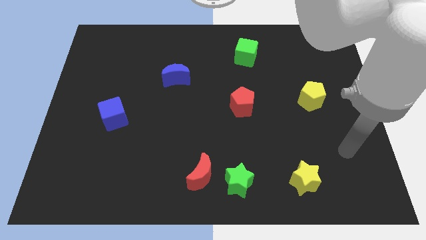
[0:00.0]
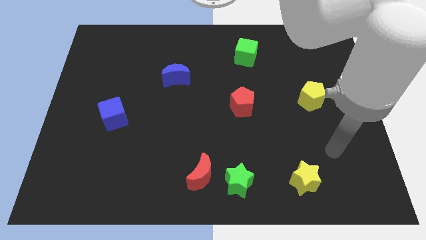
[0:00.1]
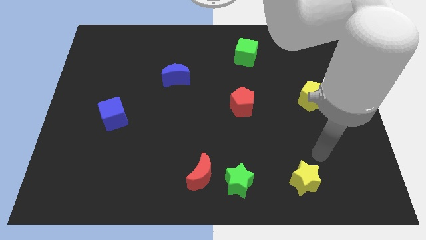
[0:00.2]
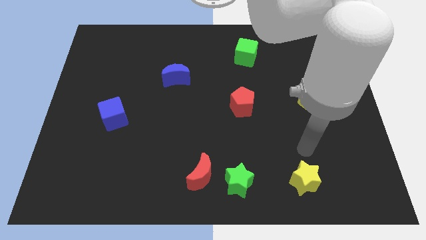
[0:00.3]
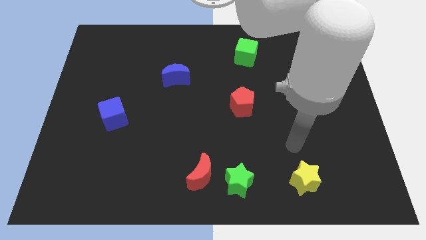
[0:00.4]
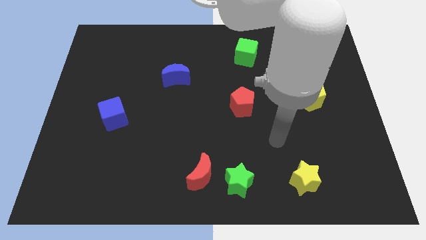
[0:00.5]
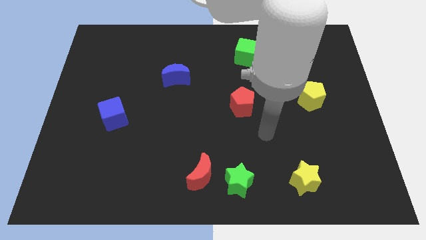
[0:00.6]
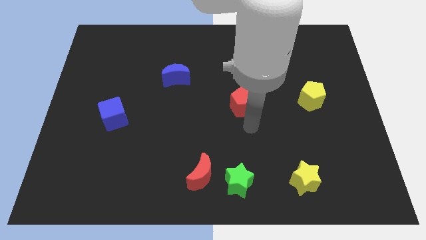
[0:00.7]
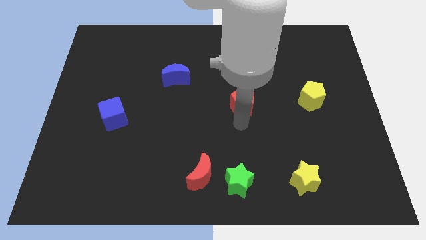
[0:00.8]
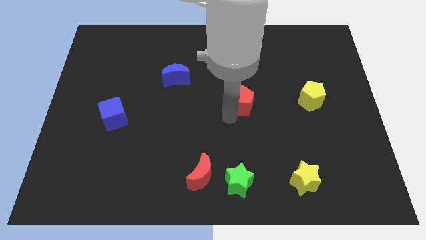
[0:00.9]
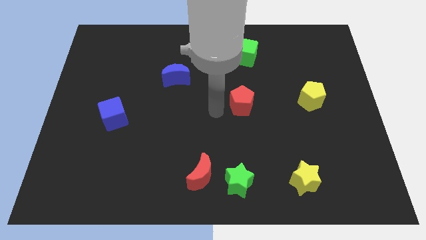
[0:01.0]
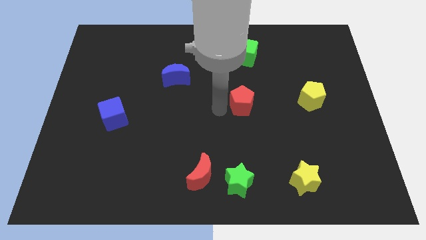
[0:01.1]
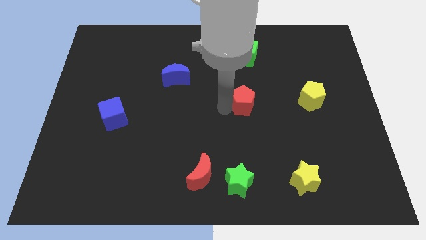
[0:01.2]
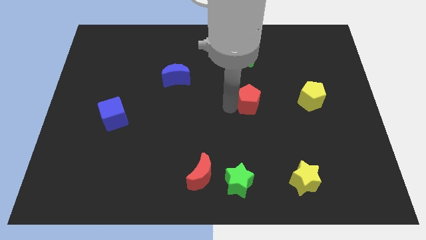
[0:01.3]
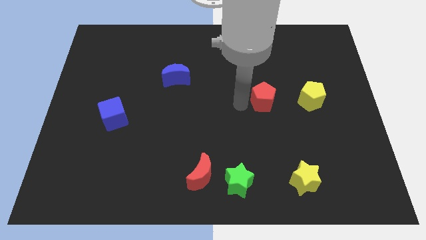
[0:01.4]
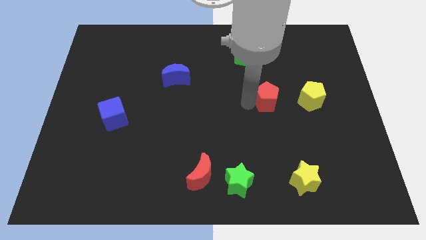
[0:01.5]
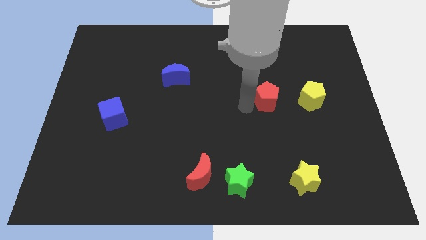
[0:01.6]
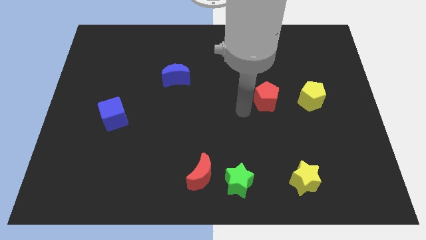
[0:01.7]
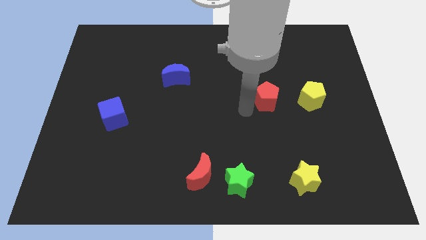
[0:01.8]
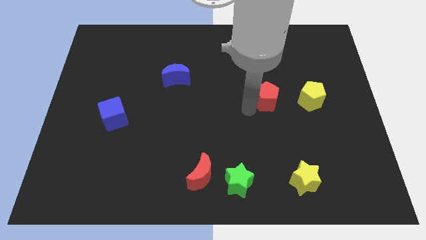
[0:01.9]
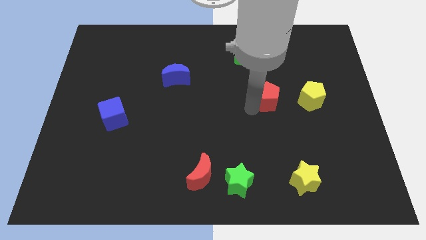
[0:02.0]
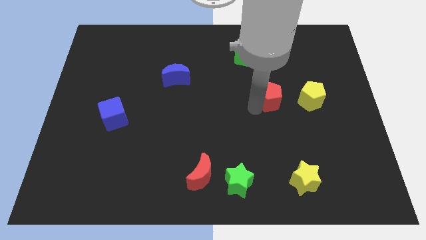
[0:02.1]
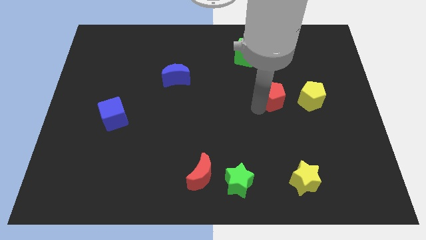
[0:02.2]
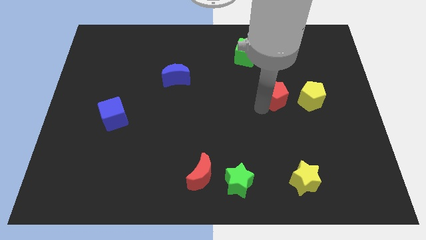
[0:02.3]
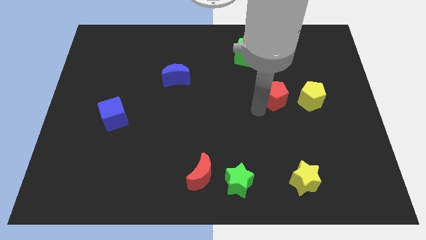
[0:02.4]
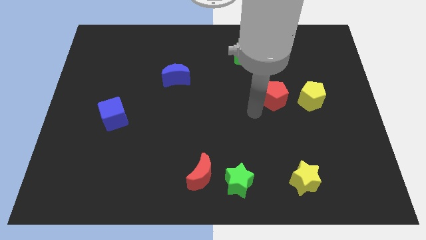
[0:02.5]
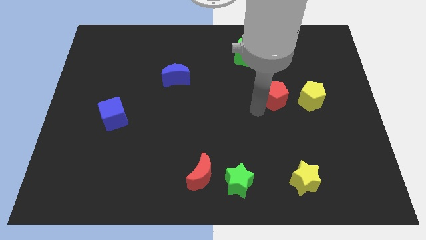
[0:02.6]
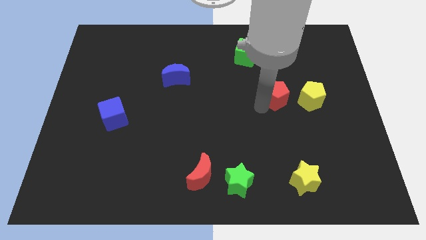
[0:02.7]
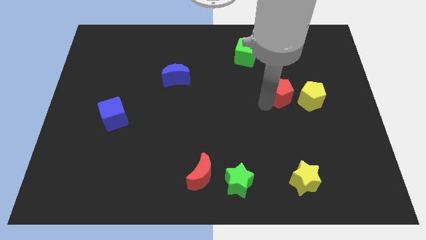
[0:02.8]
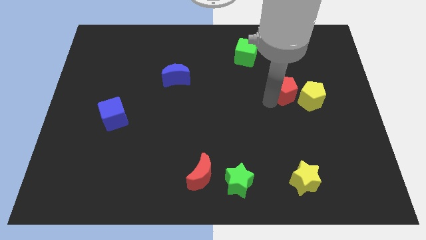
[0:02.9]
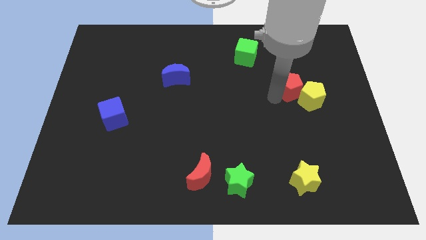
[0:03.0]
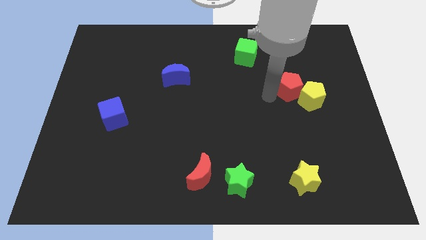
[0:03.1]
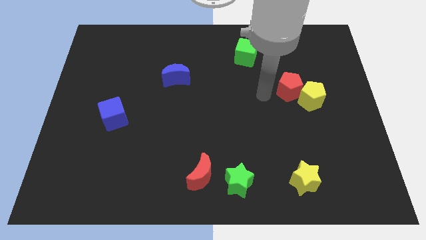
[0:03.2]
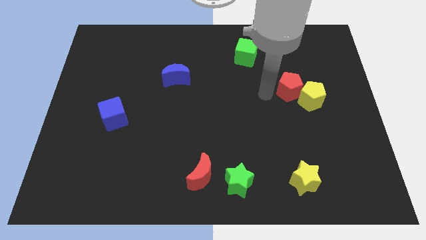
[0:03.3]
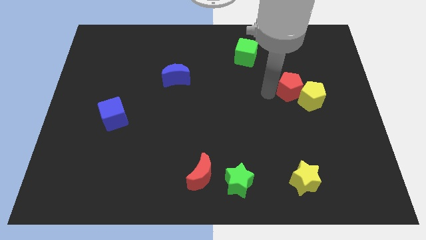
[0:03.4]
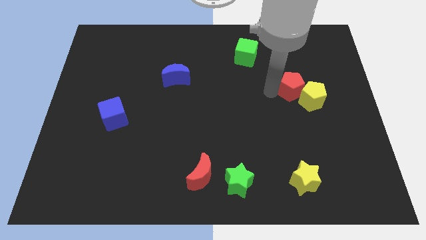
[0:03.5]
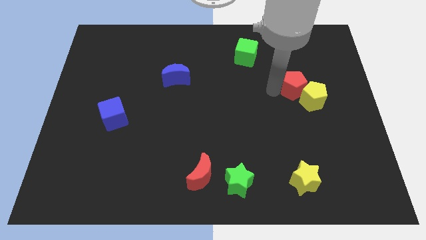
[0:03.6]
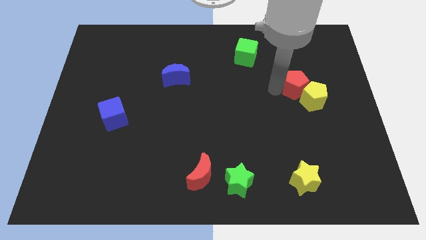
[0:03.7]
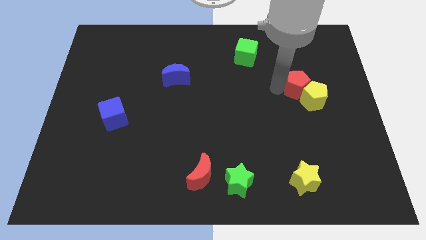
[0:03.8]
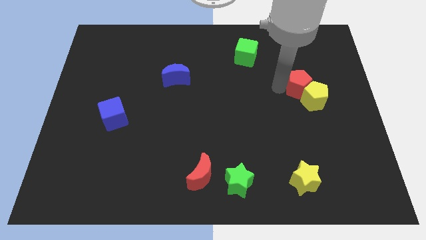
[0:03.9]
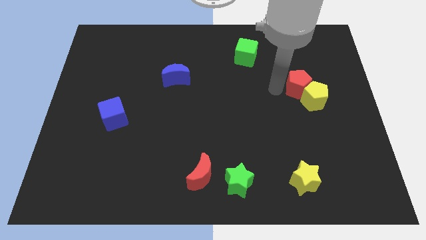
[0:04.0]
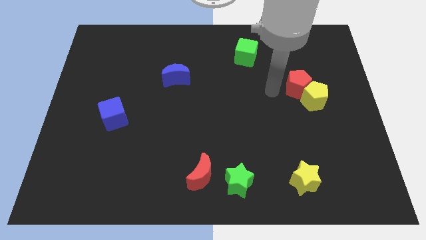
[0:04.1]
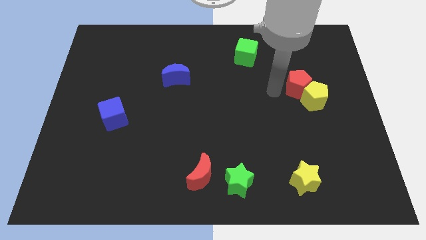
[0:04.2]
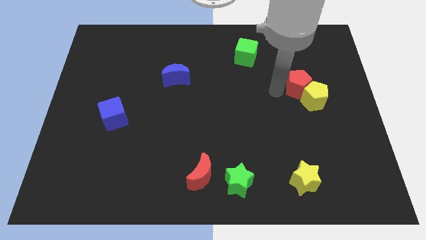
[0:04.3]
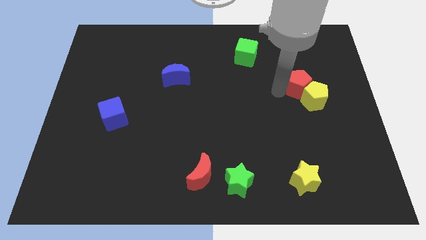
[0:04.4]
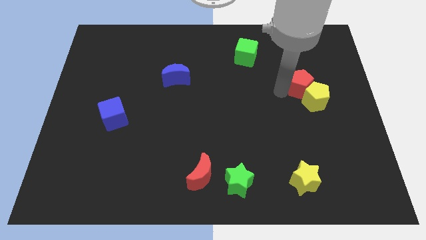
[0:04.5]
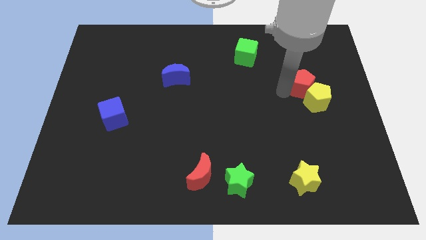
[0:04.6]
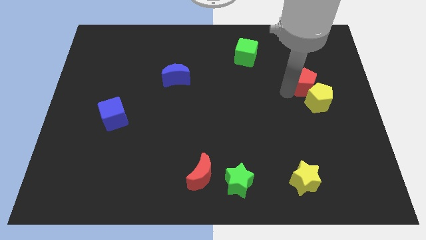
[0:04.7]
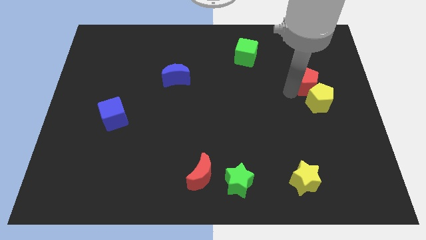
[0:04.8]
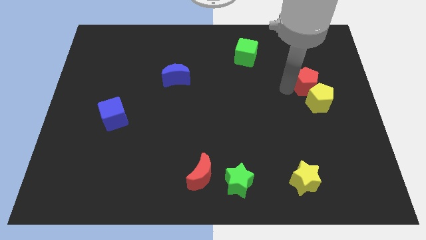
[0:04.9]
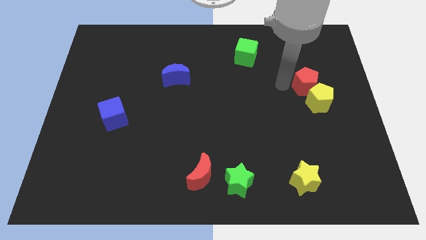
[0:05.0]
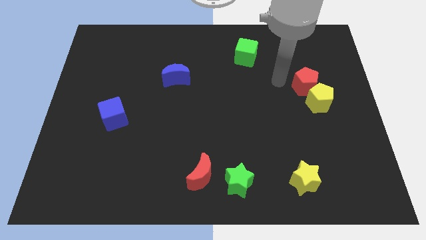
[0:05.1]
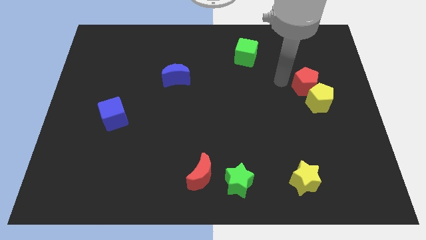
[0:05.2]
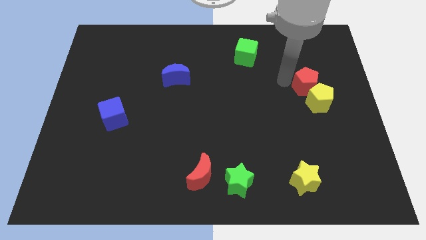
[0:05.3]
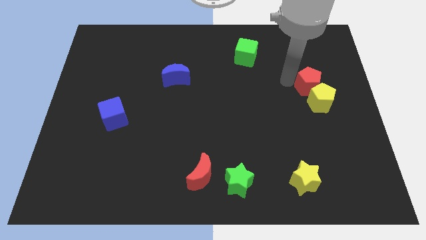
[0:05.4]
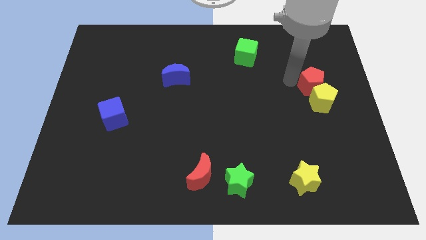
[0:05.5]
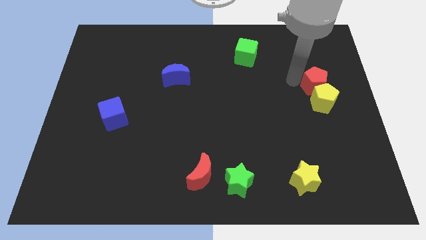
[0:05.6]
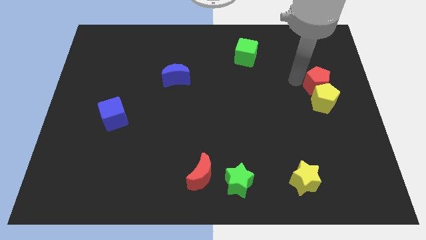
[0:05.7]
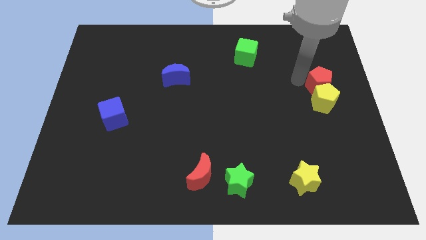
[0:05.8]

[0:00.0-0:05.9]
move the red pentagon to the right side
